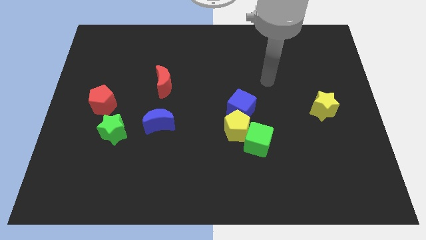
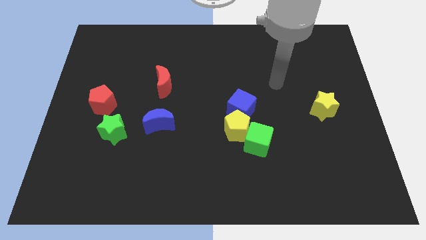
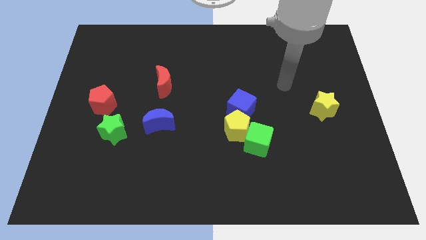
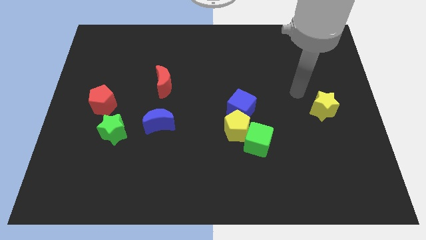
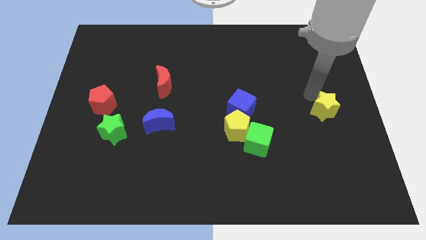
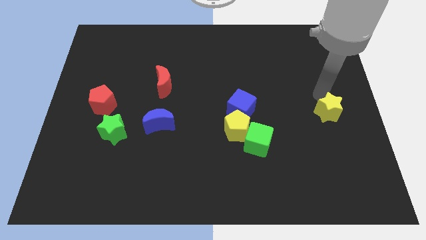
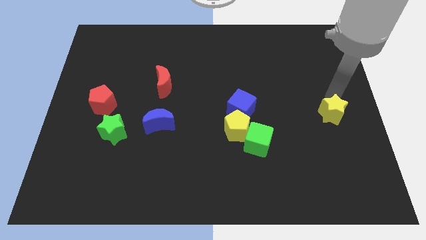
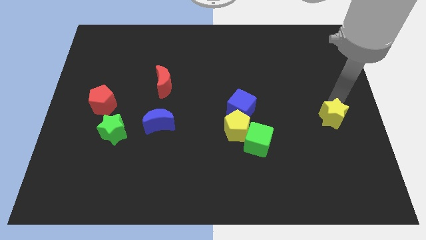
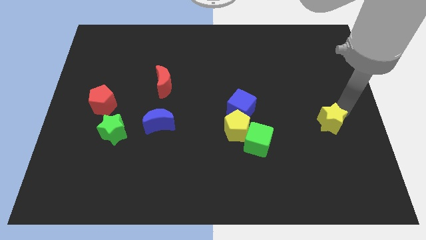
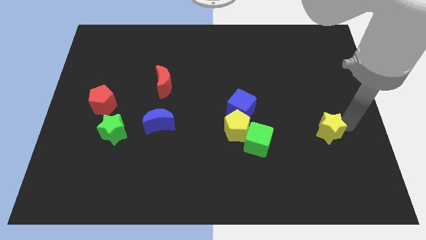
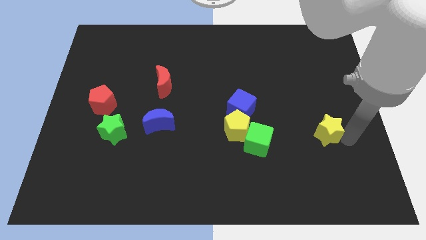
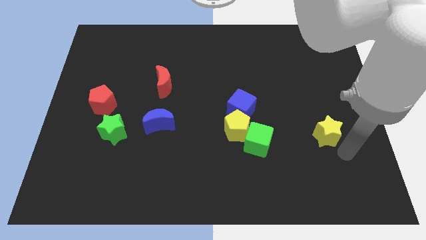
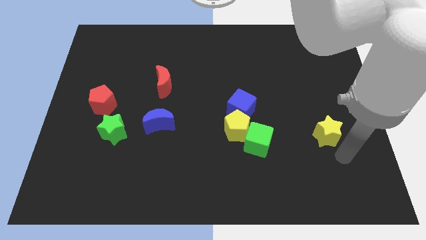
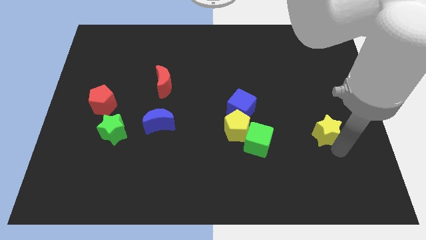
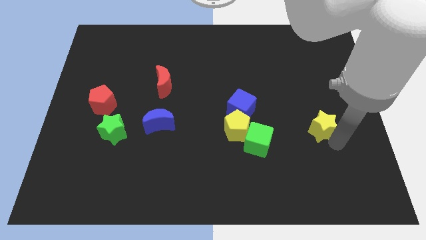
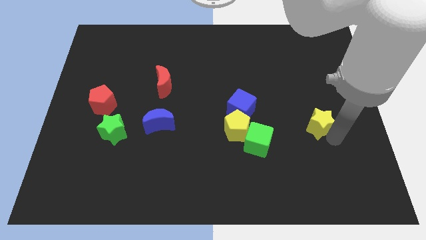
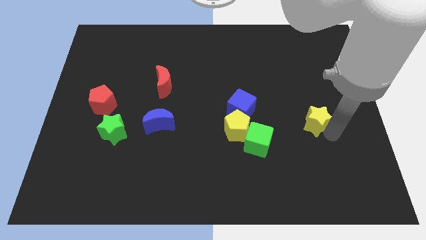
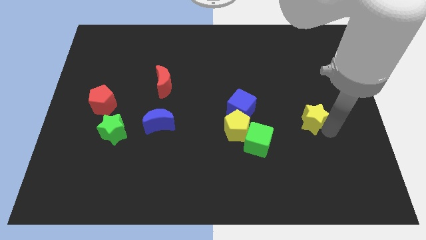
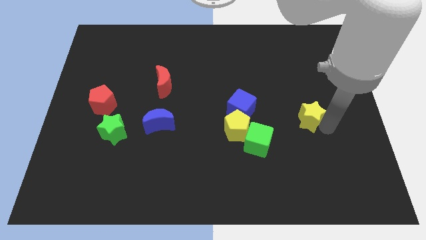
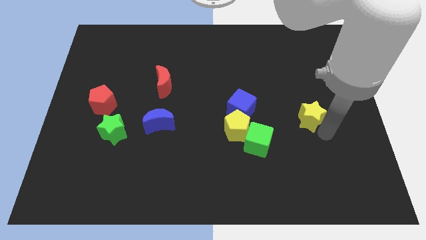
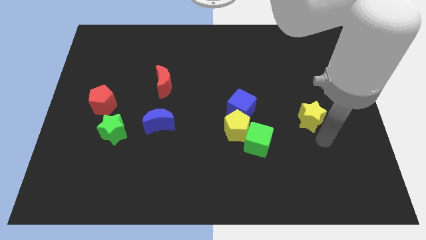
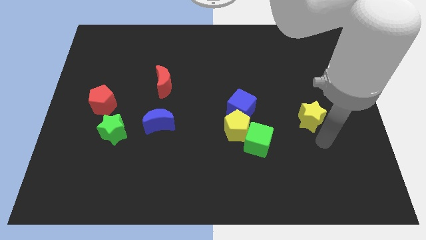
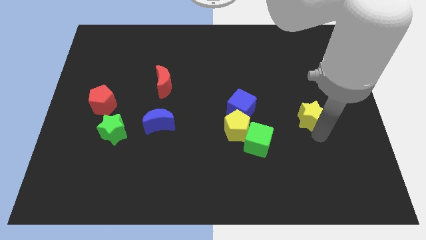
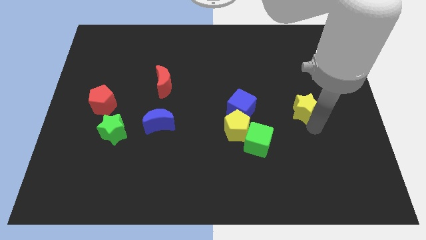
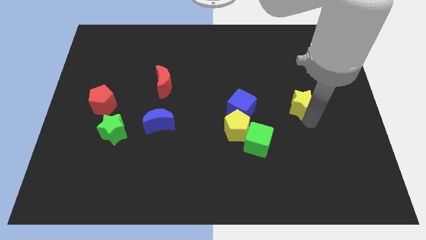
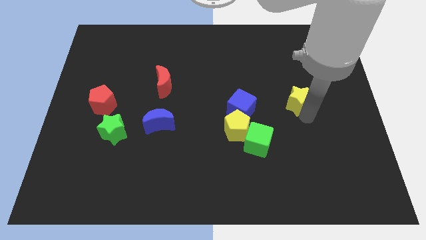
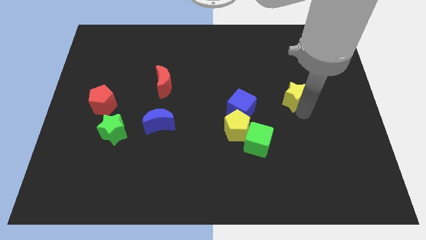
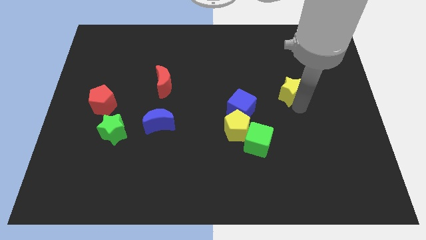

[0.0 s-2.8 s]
push the yellow star up and left slightly

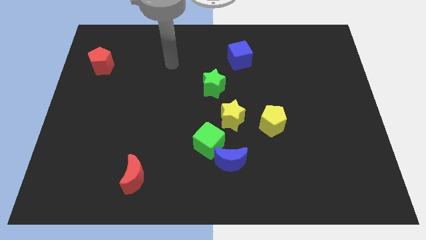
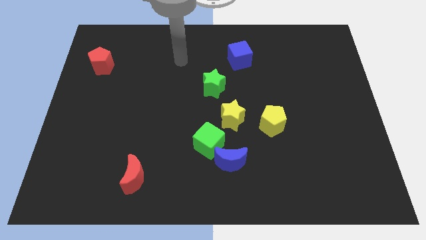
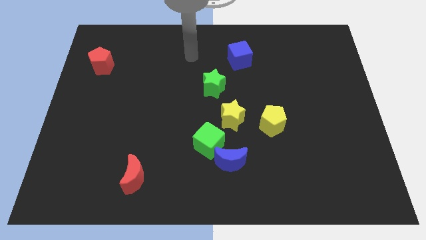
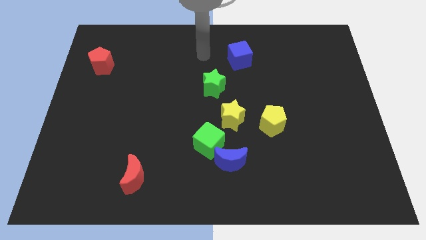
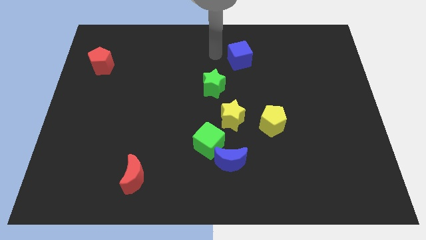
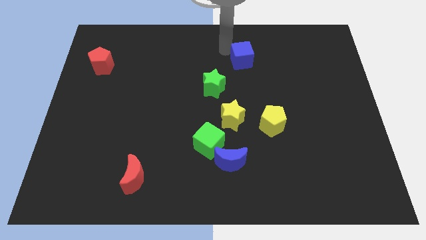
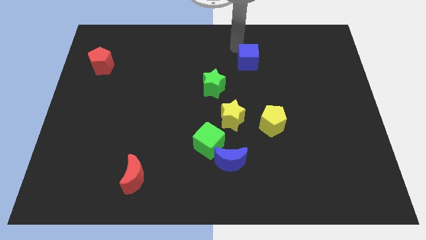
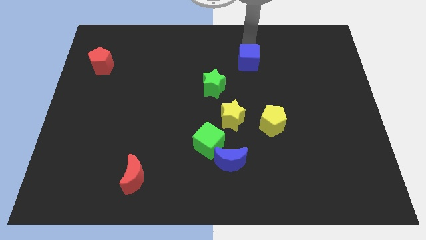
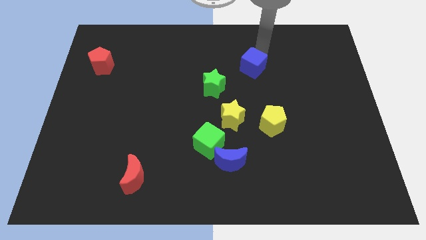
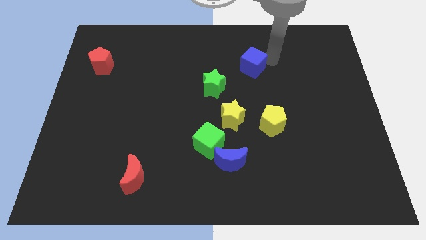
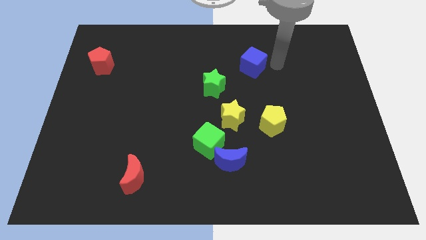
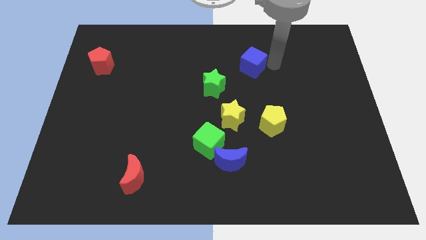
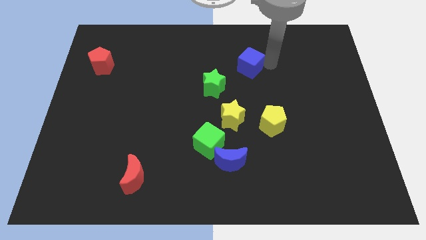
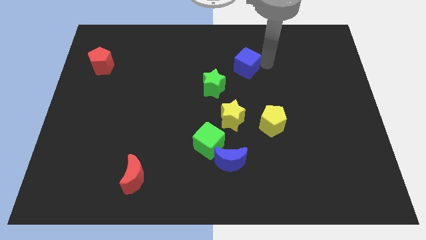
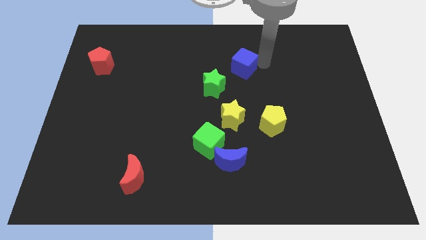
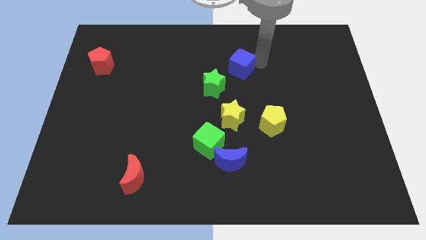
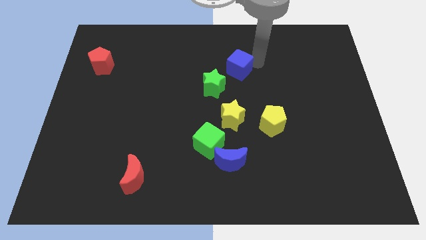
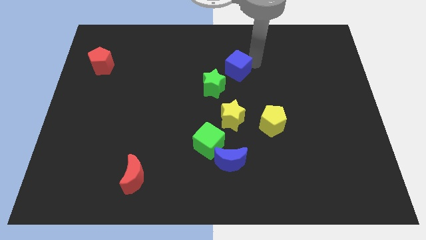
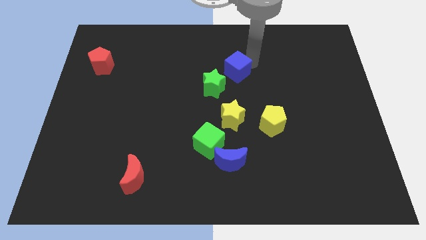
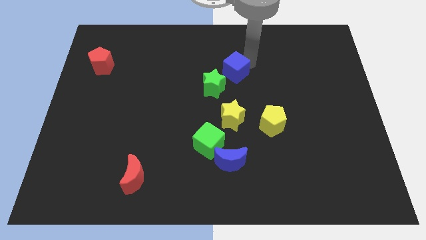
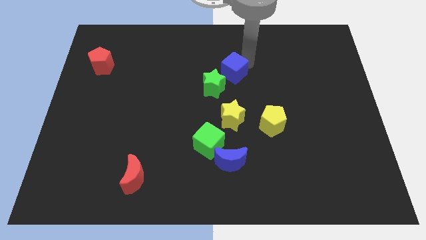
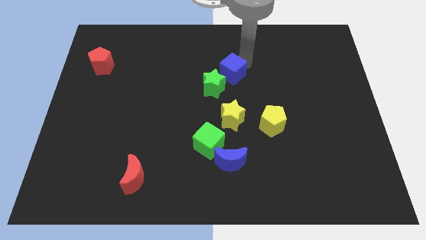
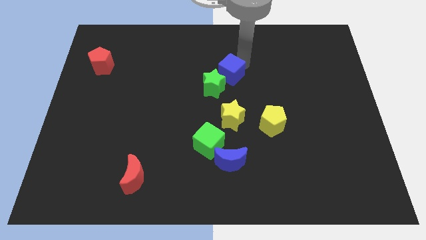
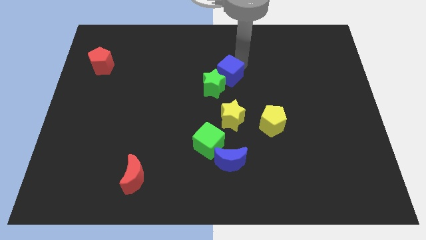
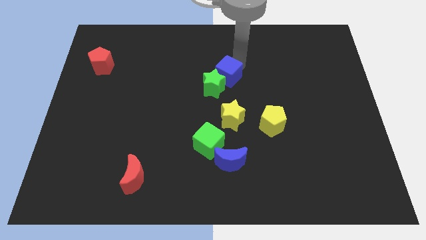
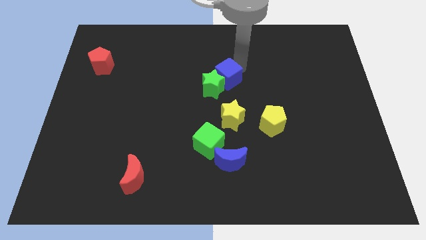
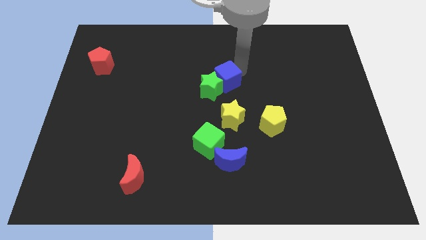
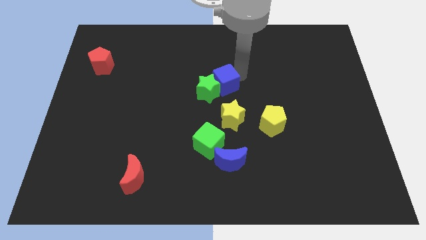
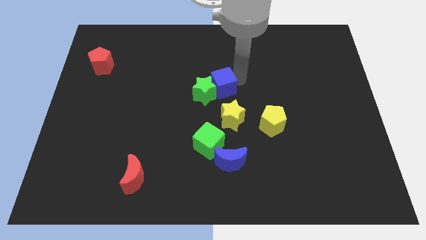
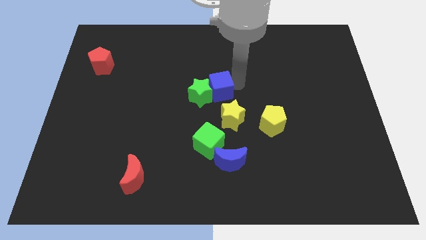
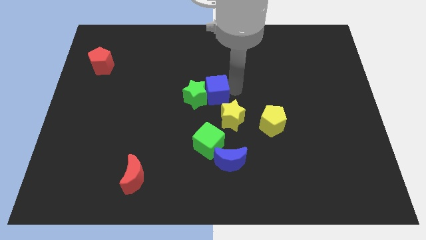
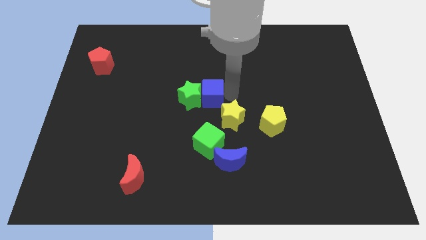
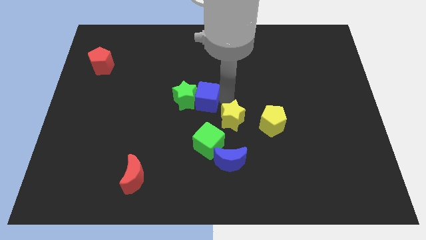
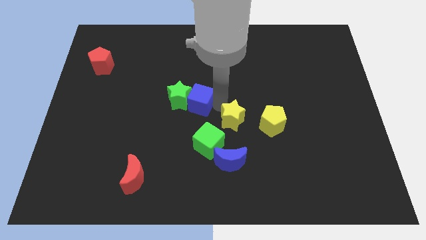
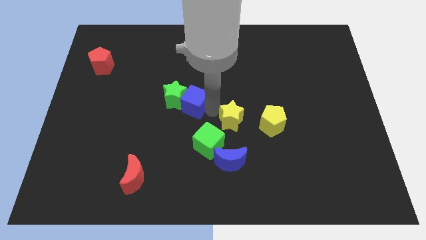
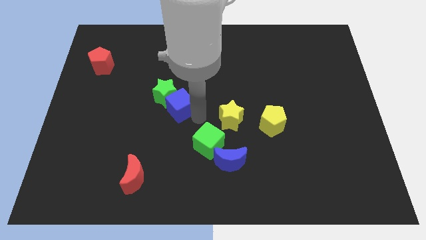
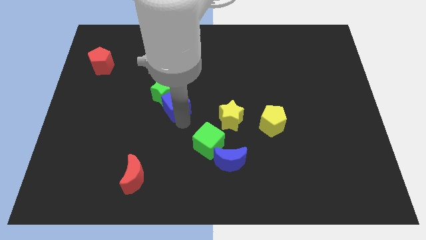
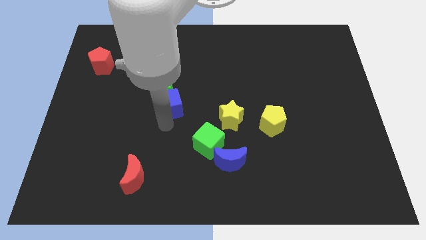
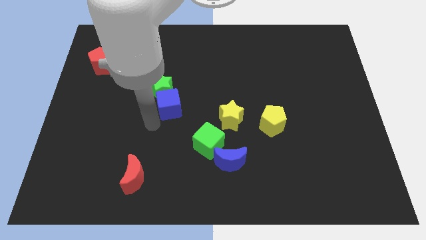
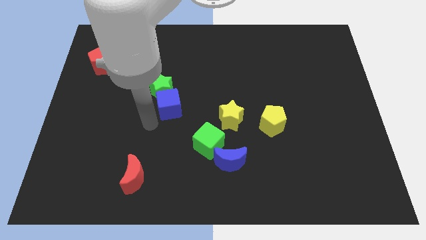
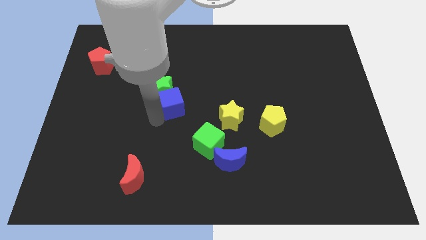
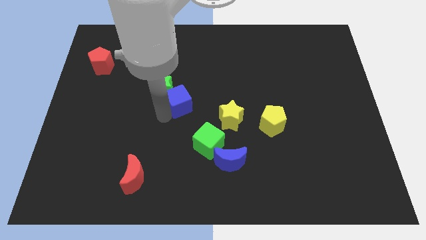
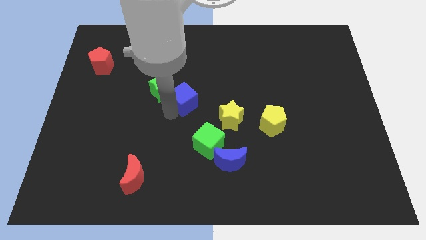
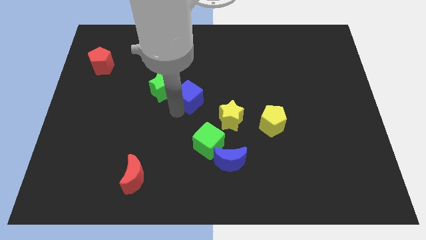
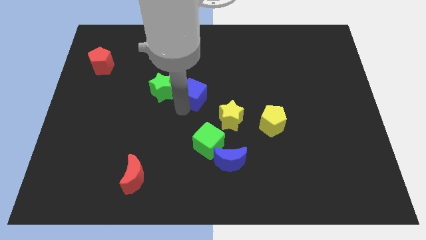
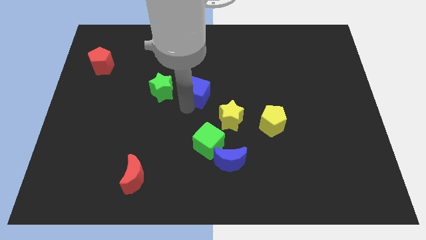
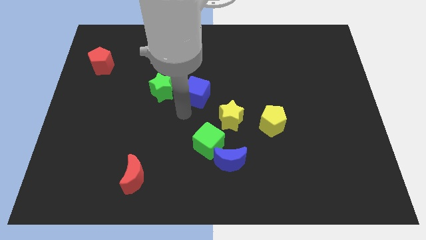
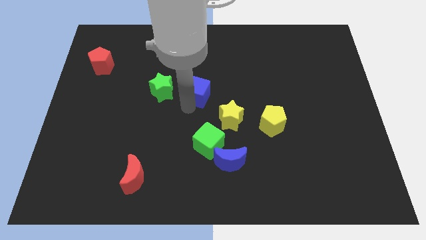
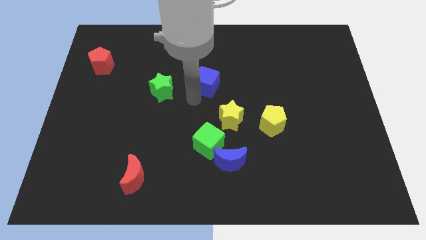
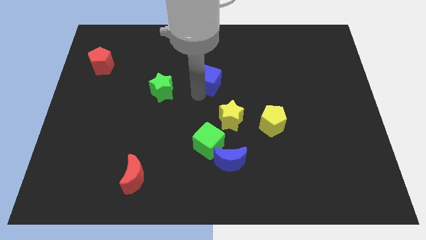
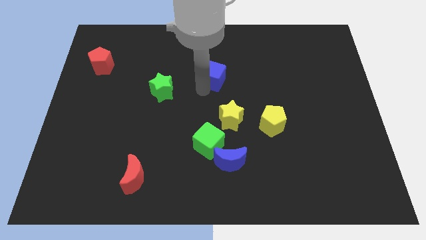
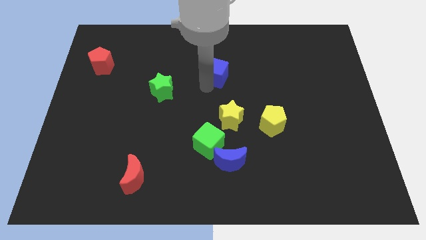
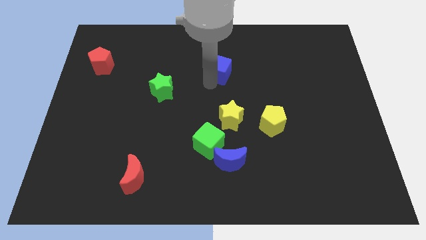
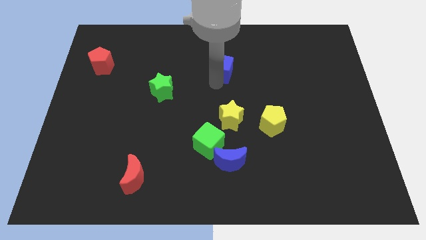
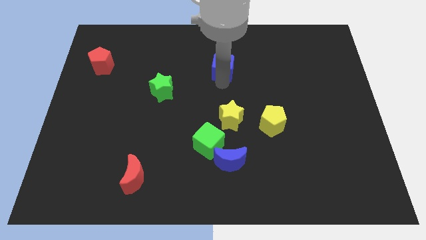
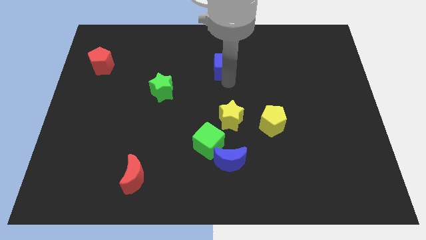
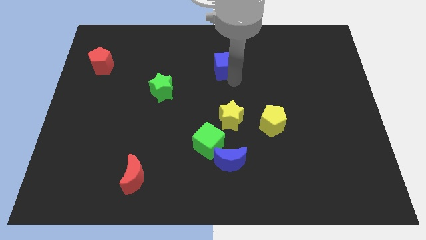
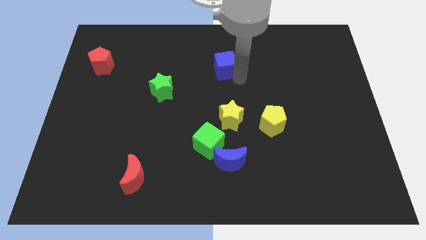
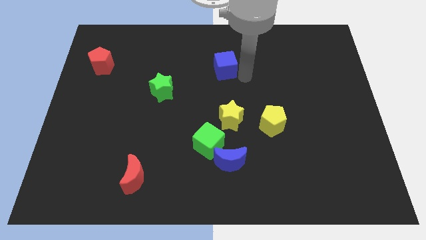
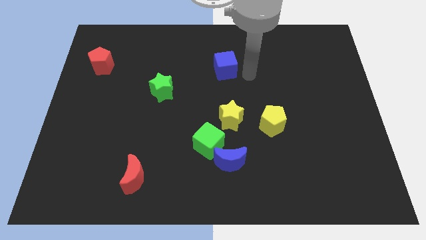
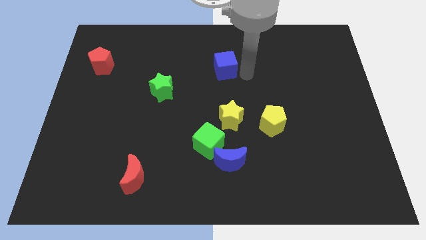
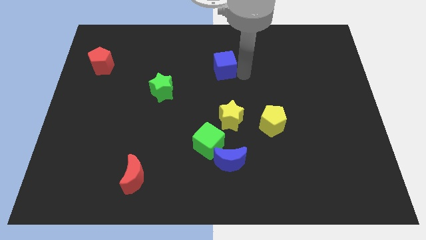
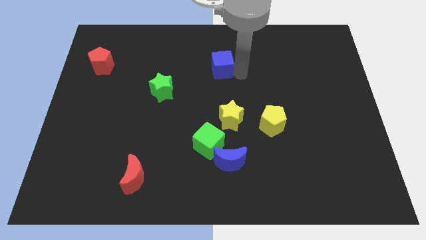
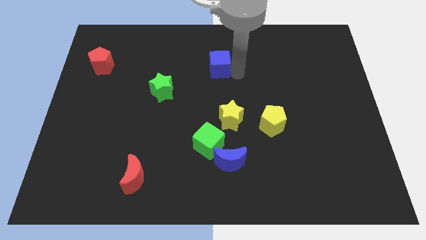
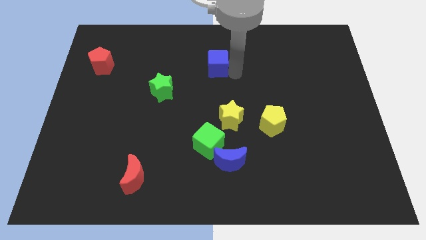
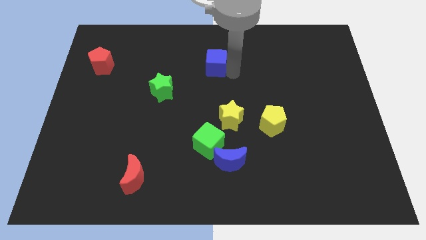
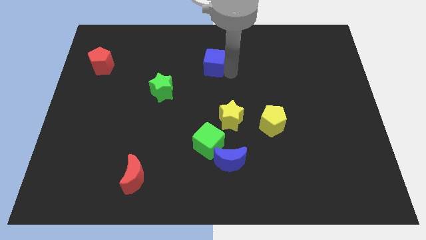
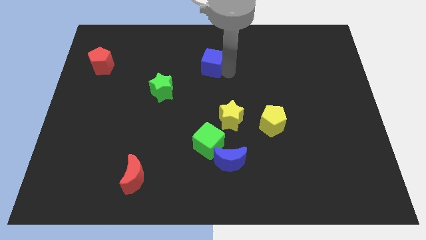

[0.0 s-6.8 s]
move the blue cube a bit to the left
